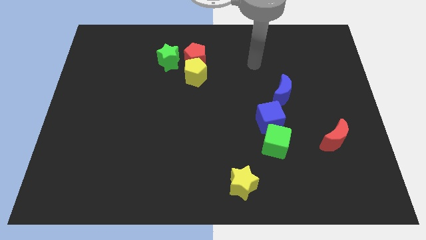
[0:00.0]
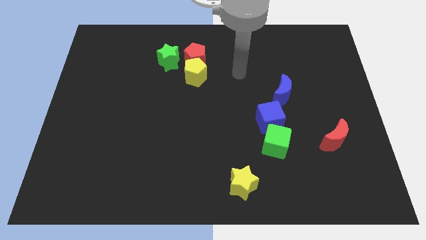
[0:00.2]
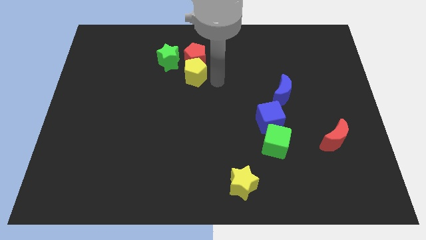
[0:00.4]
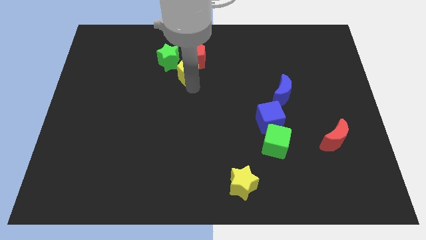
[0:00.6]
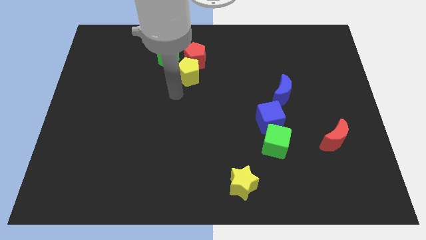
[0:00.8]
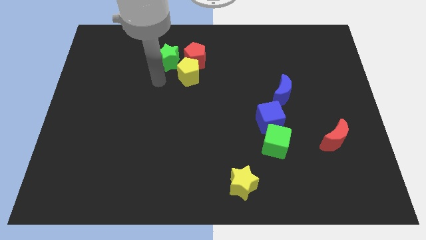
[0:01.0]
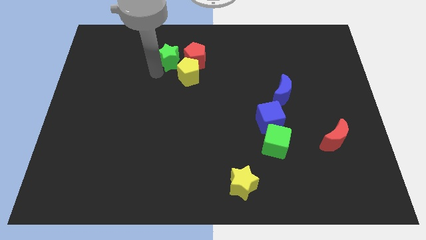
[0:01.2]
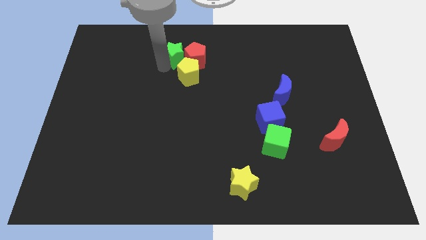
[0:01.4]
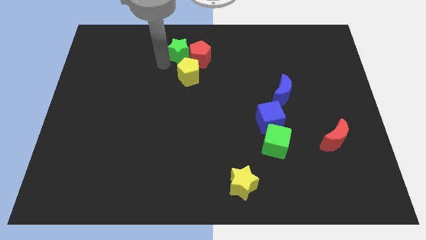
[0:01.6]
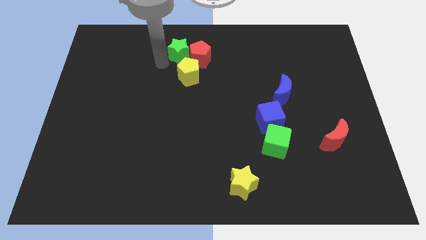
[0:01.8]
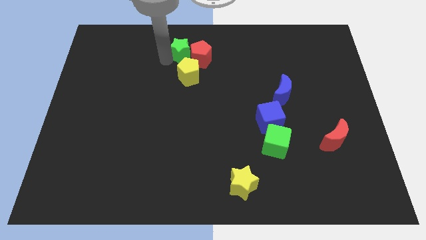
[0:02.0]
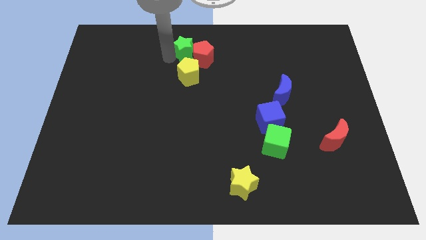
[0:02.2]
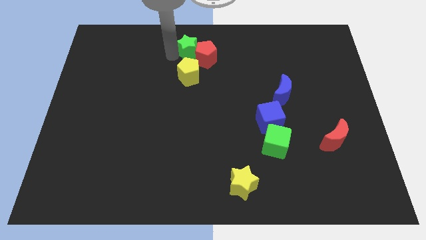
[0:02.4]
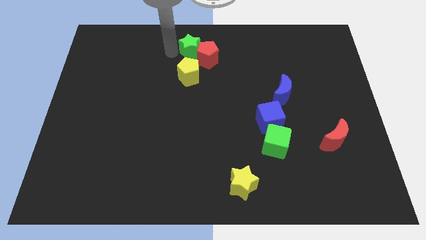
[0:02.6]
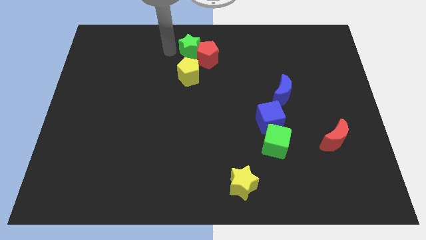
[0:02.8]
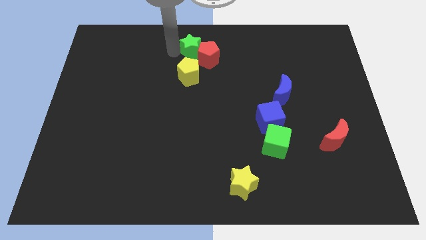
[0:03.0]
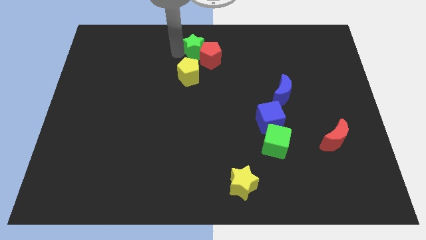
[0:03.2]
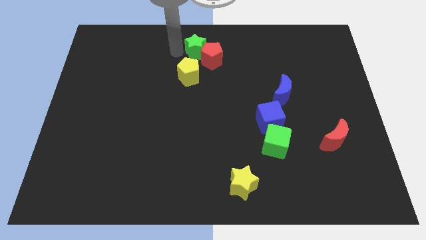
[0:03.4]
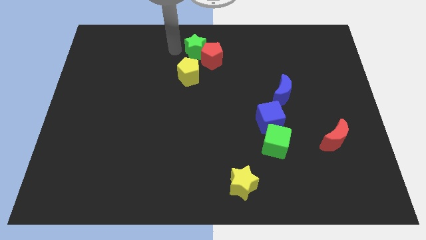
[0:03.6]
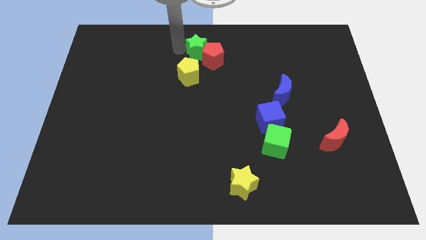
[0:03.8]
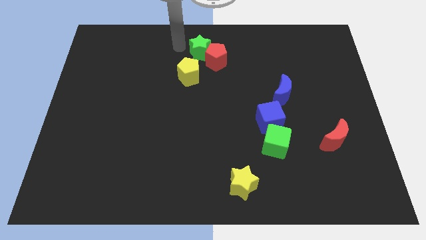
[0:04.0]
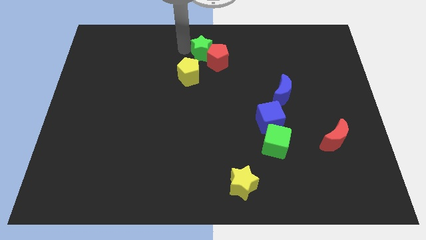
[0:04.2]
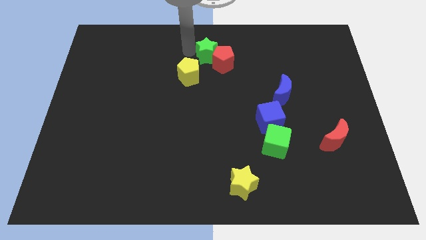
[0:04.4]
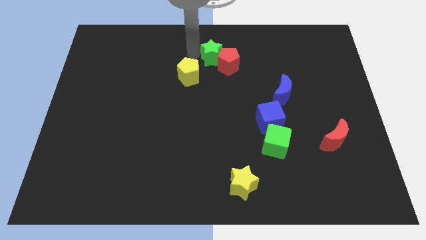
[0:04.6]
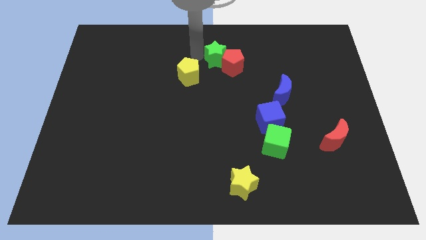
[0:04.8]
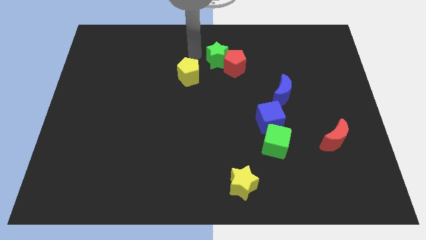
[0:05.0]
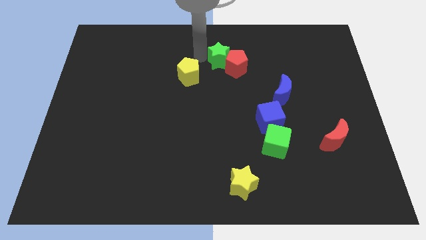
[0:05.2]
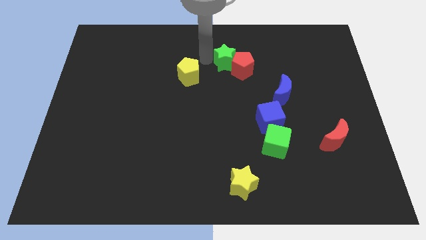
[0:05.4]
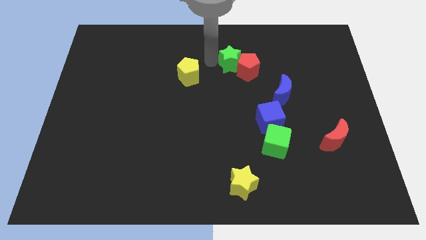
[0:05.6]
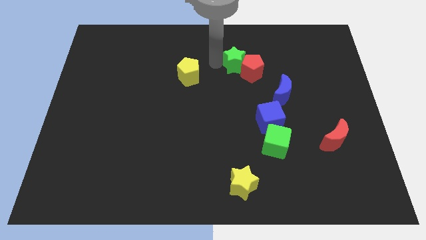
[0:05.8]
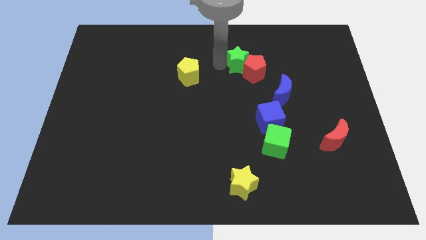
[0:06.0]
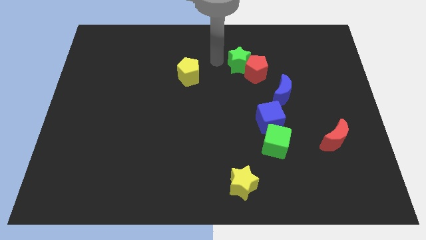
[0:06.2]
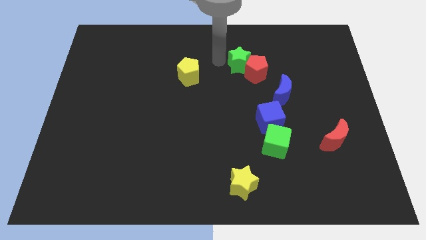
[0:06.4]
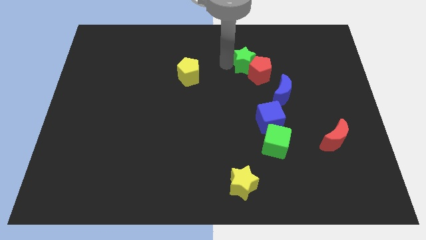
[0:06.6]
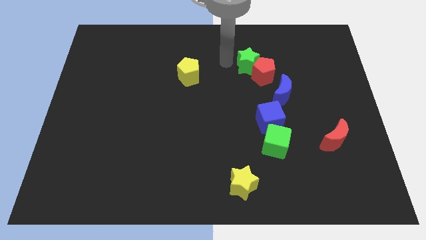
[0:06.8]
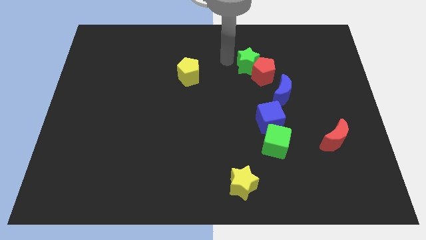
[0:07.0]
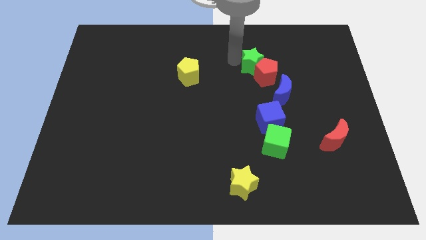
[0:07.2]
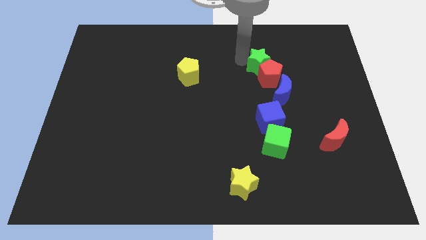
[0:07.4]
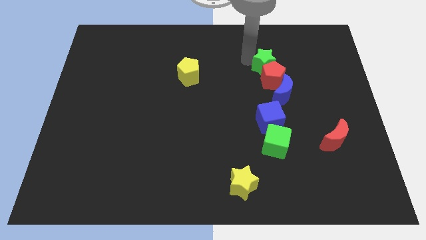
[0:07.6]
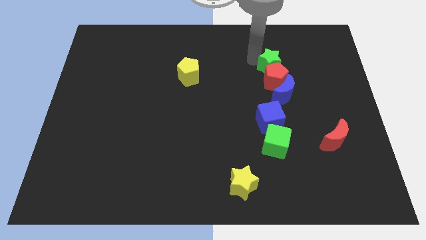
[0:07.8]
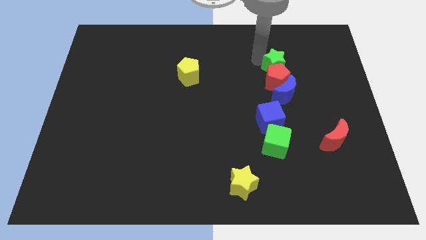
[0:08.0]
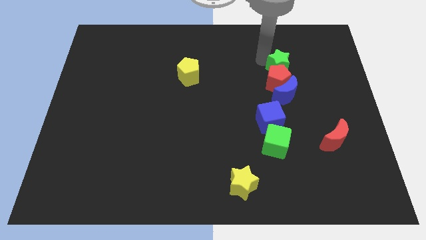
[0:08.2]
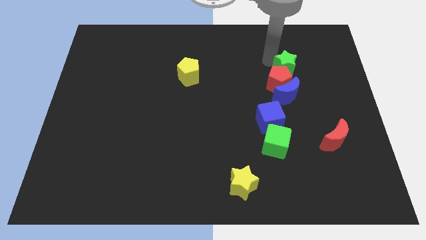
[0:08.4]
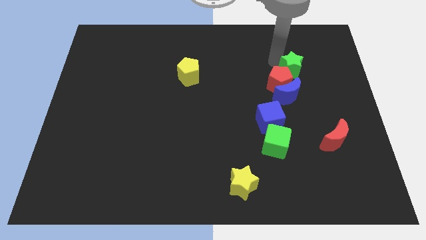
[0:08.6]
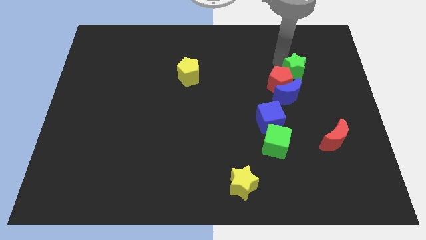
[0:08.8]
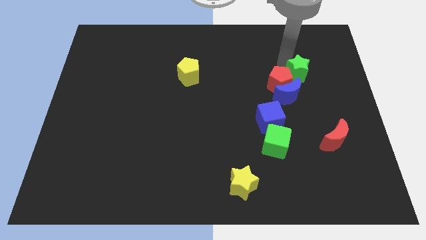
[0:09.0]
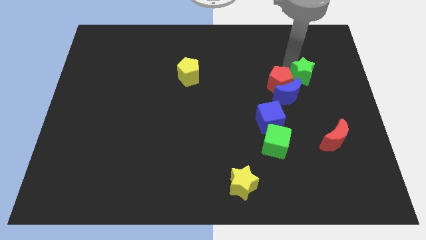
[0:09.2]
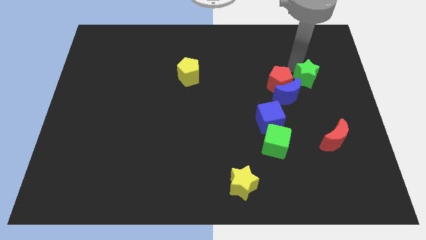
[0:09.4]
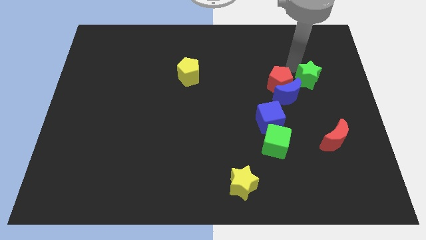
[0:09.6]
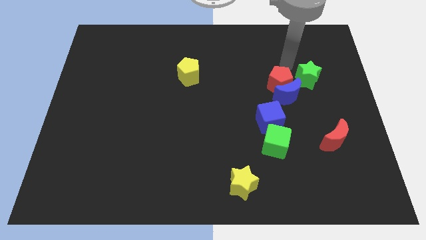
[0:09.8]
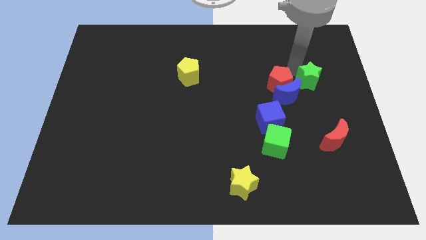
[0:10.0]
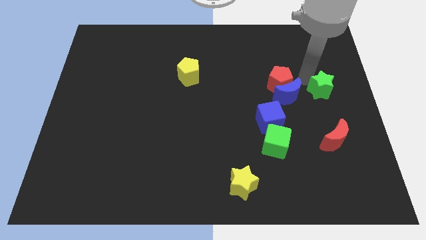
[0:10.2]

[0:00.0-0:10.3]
put the green star to the right side of the board

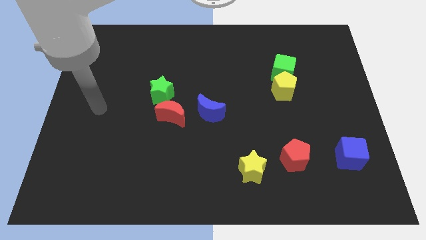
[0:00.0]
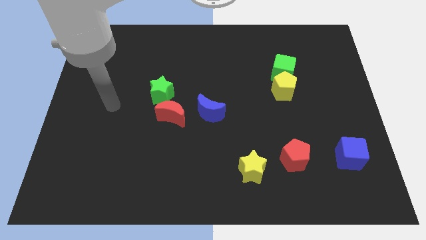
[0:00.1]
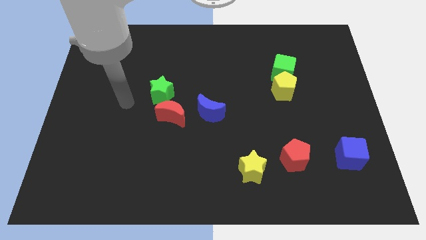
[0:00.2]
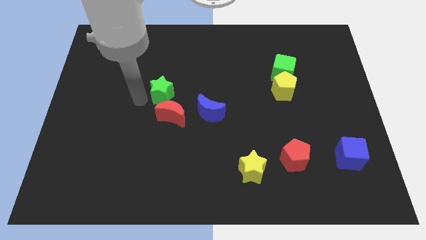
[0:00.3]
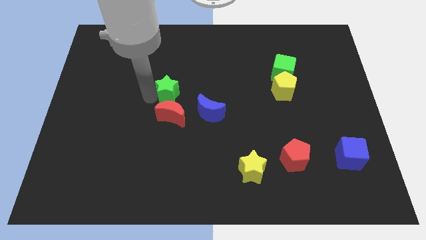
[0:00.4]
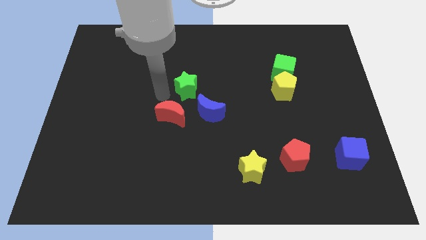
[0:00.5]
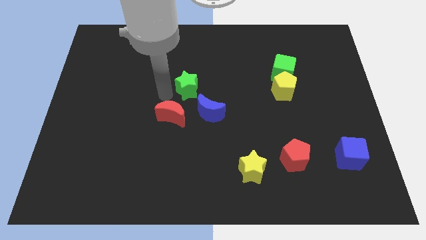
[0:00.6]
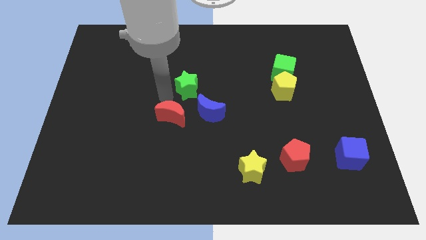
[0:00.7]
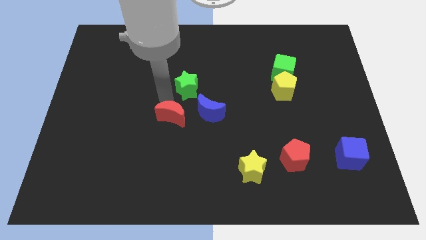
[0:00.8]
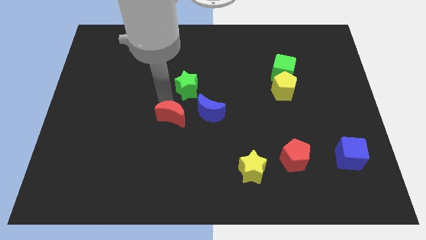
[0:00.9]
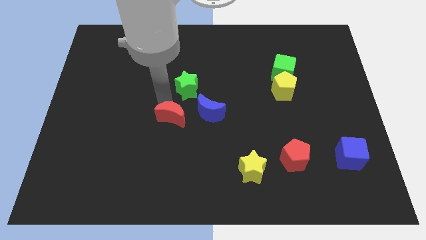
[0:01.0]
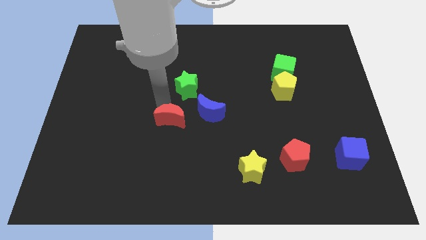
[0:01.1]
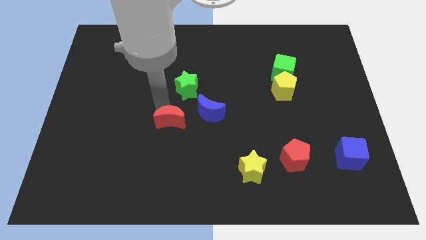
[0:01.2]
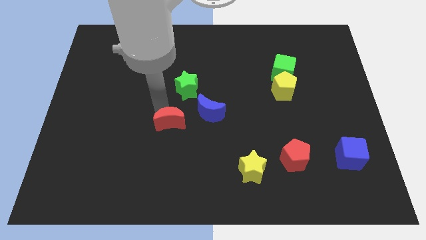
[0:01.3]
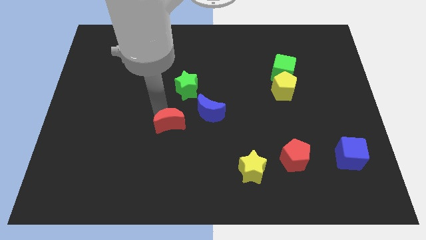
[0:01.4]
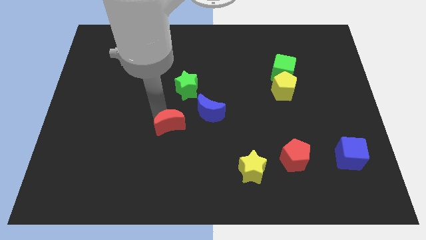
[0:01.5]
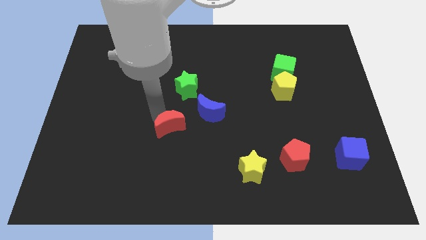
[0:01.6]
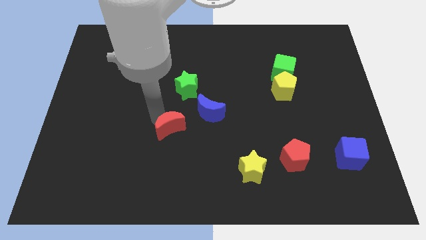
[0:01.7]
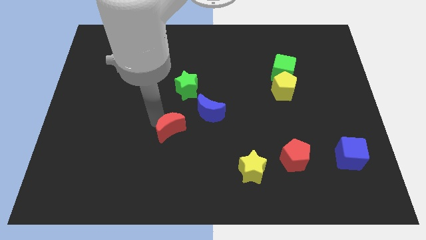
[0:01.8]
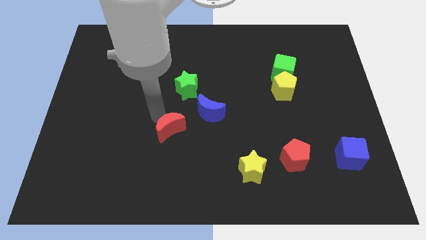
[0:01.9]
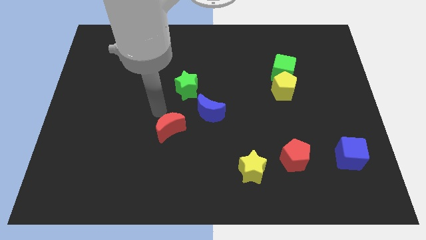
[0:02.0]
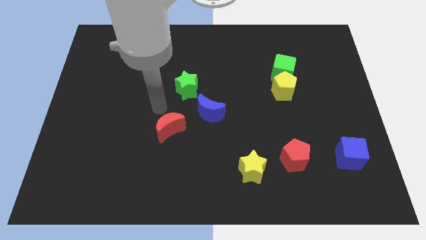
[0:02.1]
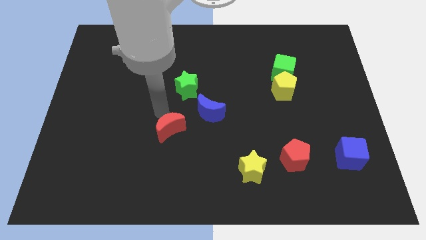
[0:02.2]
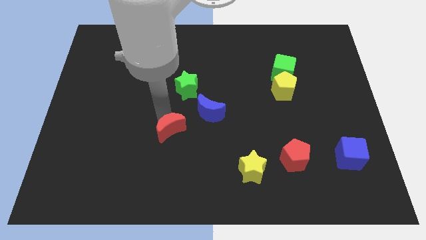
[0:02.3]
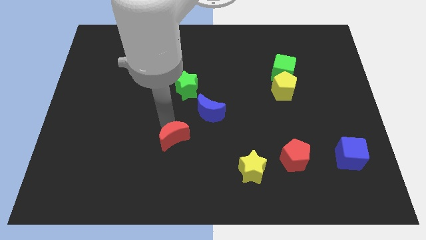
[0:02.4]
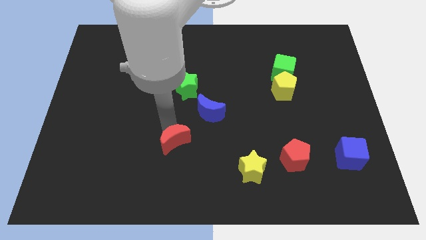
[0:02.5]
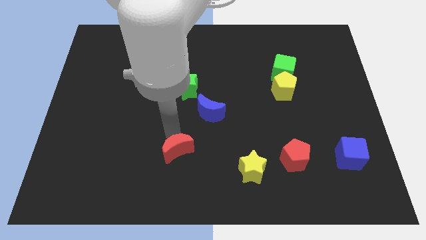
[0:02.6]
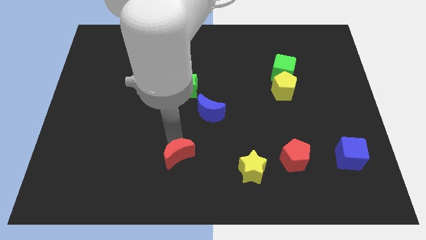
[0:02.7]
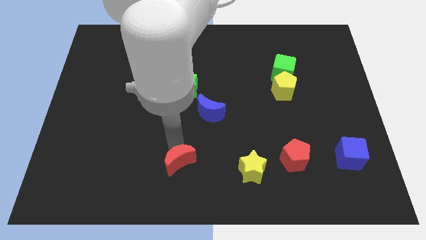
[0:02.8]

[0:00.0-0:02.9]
push the red moon to the bottom
